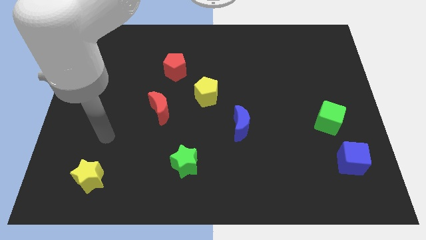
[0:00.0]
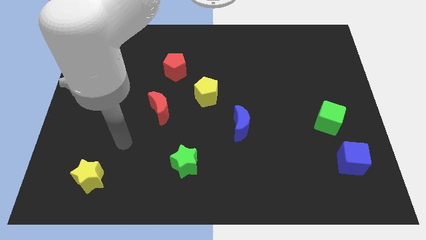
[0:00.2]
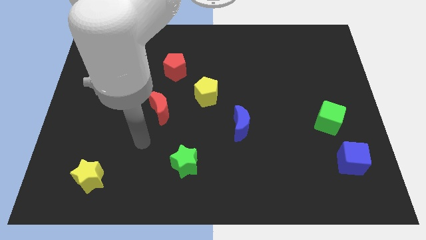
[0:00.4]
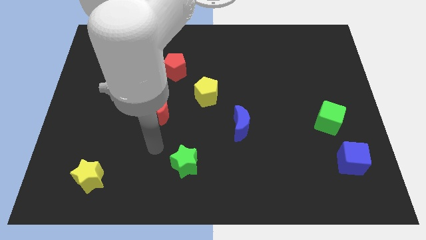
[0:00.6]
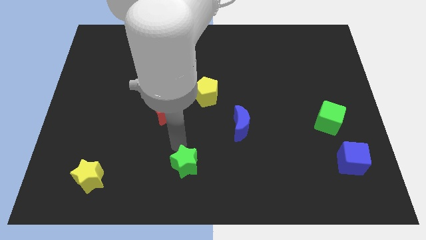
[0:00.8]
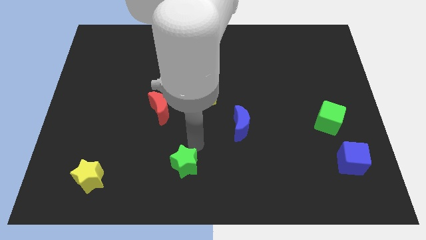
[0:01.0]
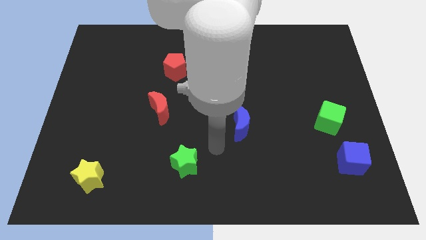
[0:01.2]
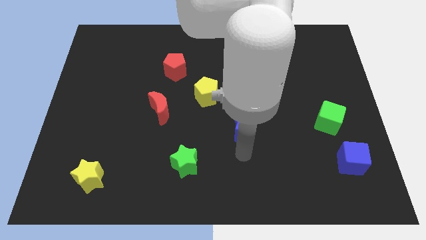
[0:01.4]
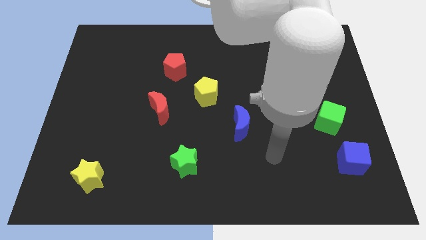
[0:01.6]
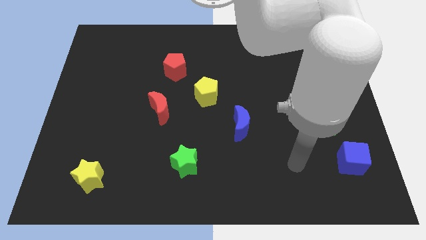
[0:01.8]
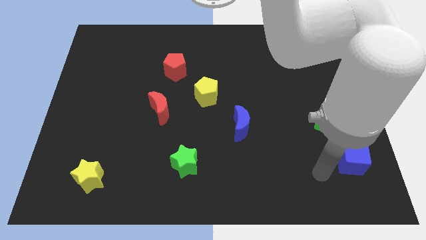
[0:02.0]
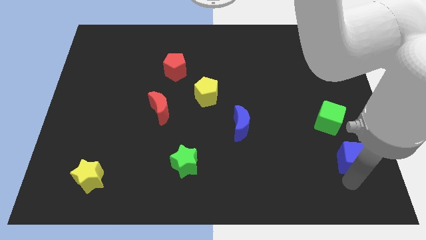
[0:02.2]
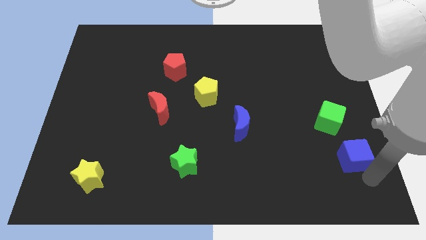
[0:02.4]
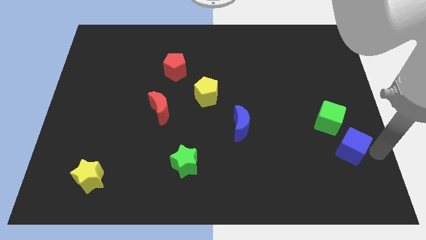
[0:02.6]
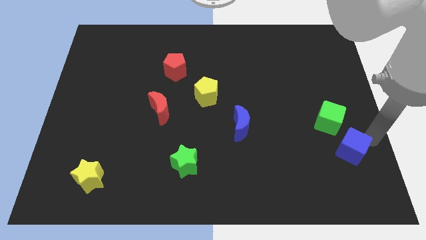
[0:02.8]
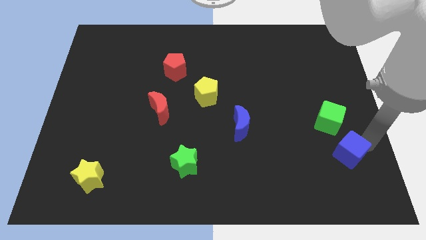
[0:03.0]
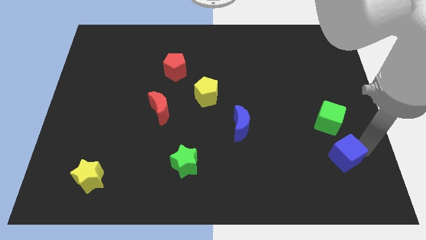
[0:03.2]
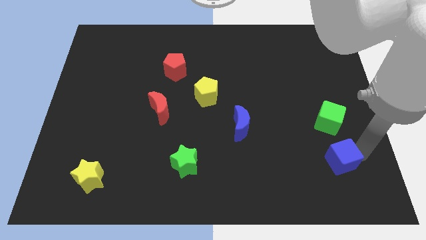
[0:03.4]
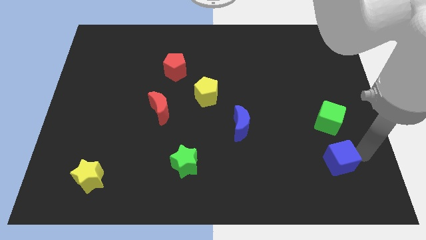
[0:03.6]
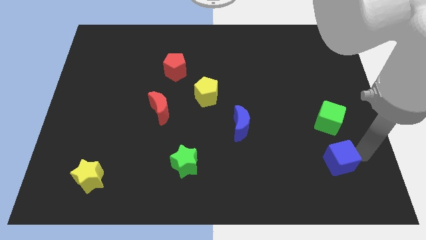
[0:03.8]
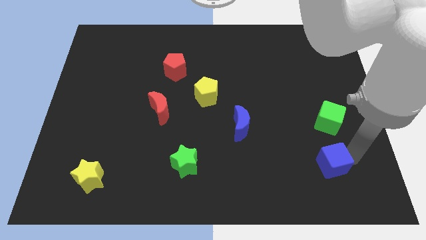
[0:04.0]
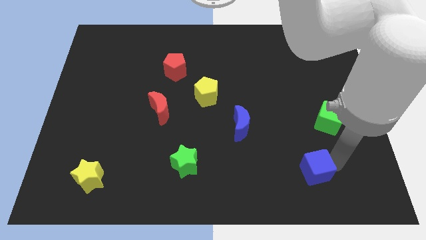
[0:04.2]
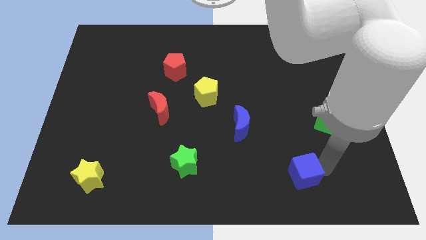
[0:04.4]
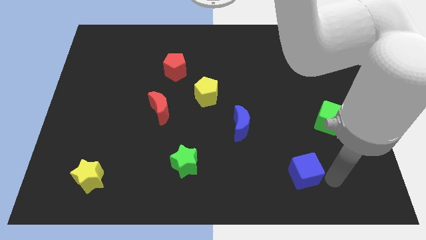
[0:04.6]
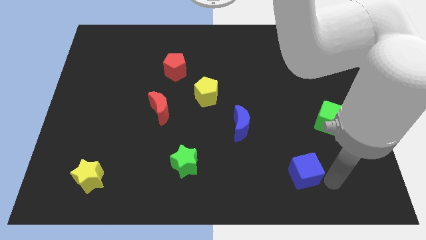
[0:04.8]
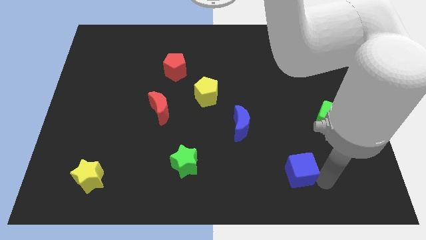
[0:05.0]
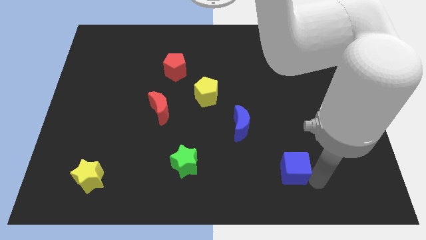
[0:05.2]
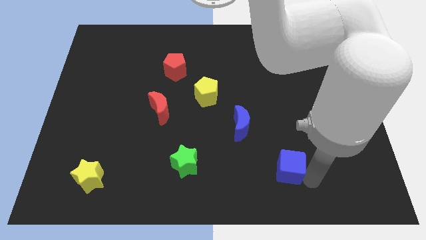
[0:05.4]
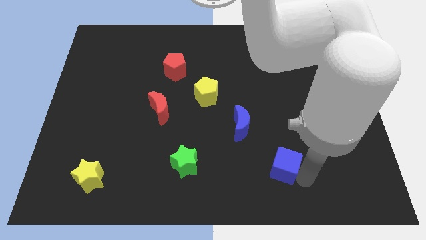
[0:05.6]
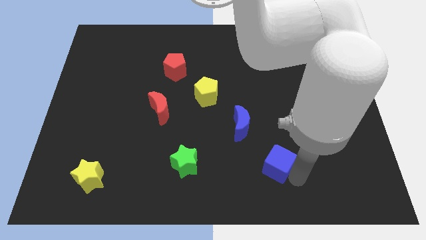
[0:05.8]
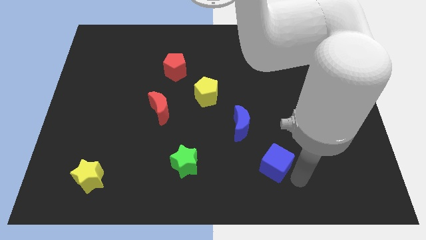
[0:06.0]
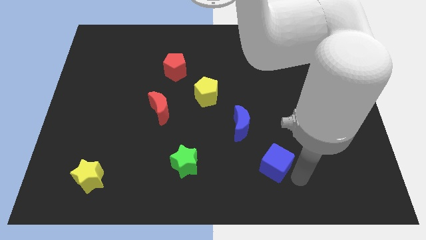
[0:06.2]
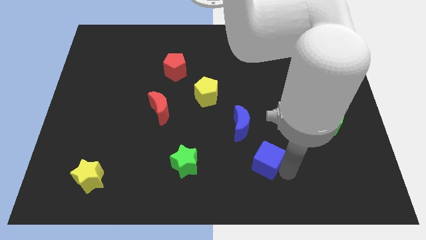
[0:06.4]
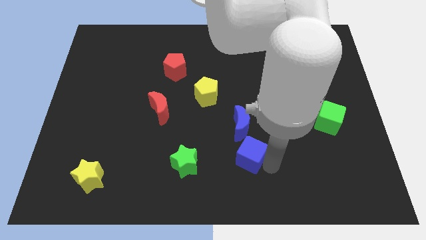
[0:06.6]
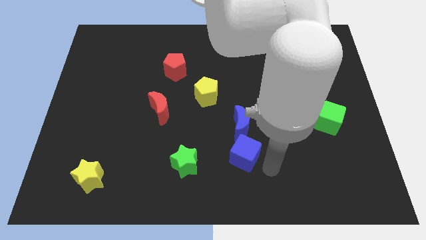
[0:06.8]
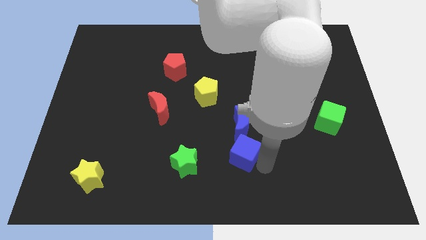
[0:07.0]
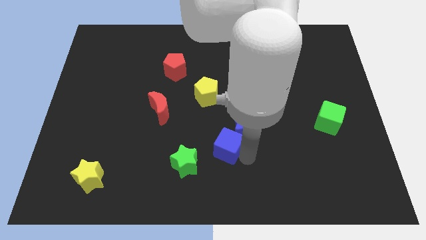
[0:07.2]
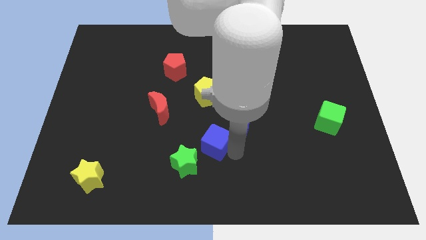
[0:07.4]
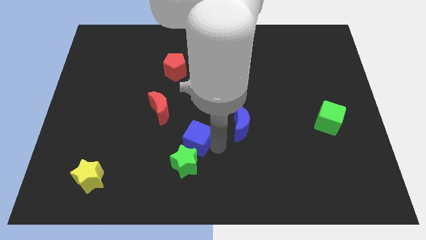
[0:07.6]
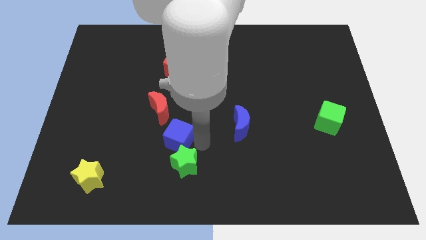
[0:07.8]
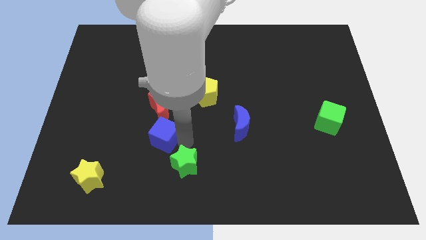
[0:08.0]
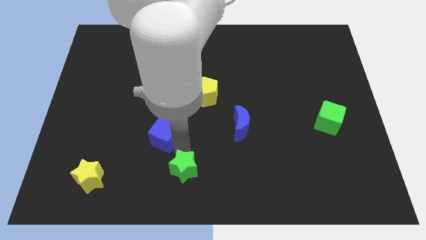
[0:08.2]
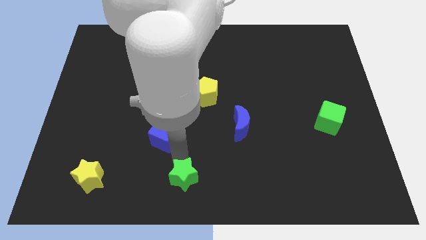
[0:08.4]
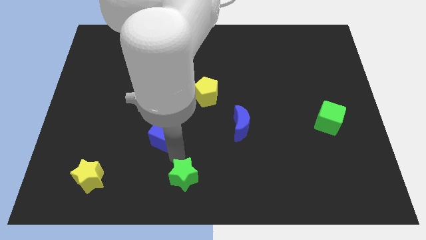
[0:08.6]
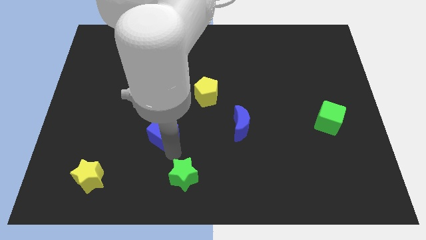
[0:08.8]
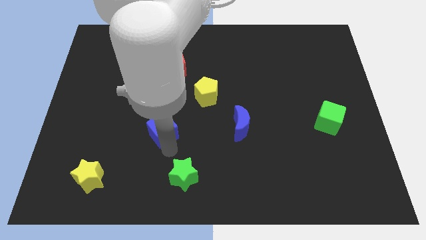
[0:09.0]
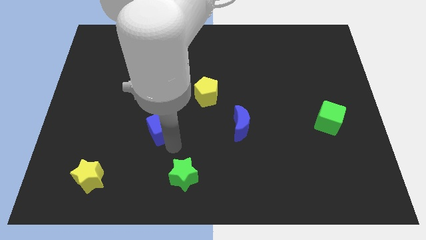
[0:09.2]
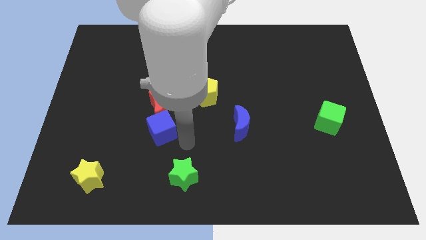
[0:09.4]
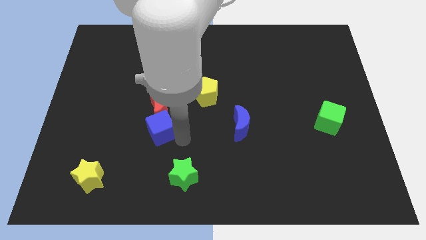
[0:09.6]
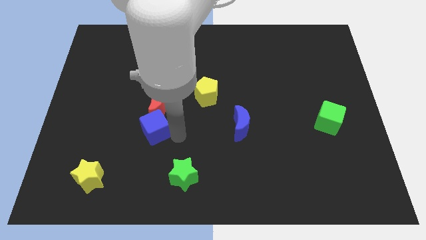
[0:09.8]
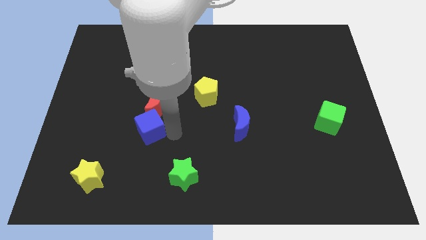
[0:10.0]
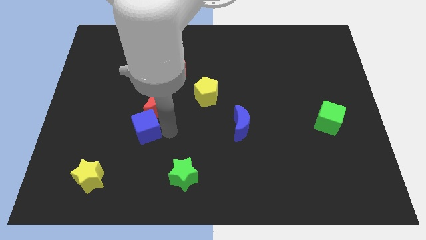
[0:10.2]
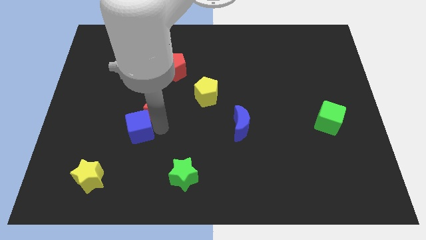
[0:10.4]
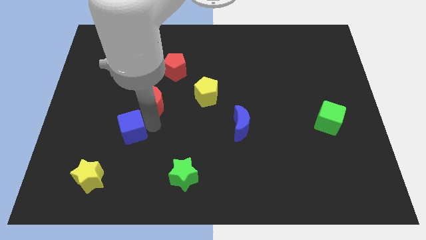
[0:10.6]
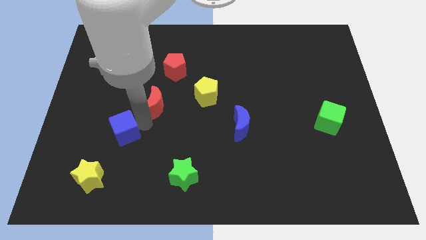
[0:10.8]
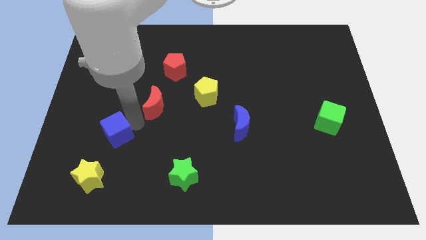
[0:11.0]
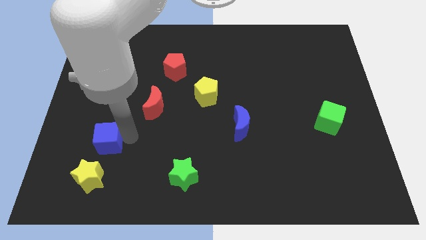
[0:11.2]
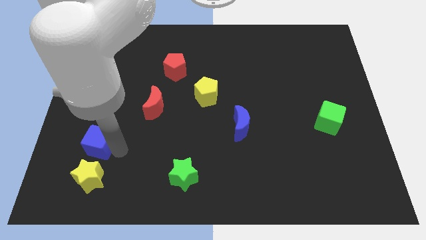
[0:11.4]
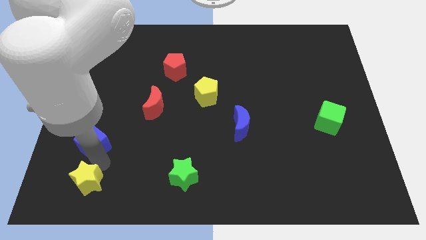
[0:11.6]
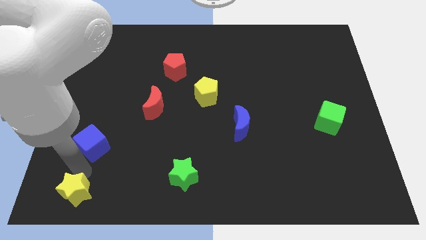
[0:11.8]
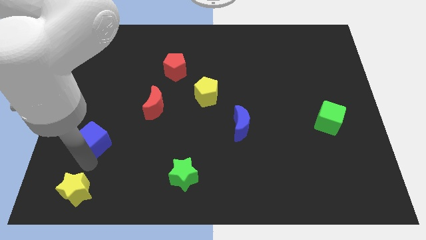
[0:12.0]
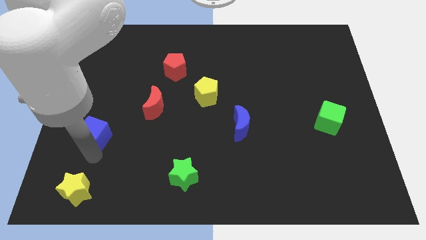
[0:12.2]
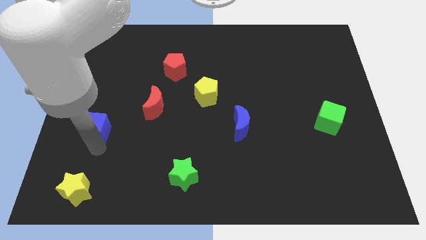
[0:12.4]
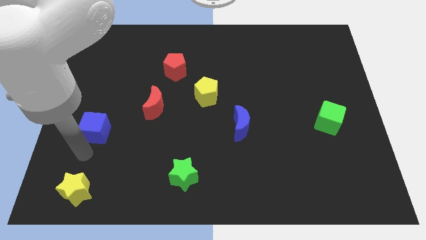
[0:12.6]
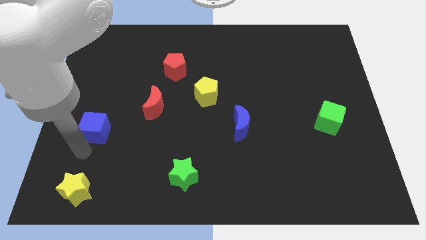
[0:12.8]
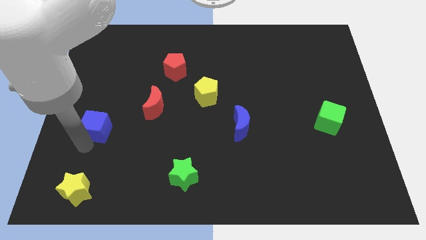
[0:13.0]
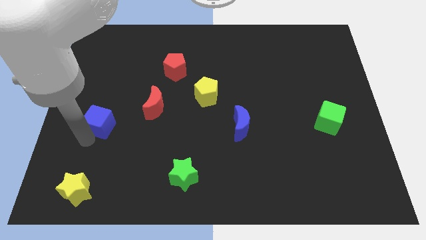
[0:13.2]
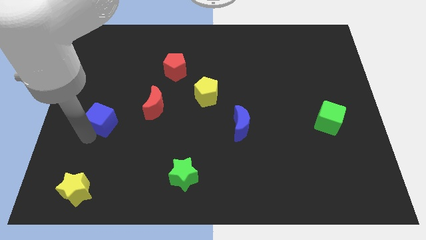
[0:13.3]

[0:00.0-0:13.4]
move the blue cube just left of the red moon

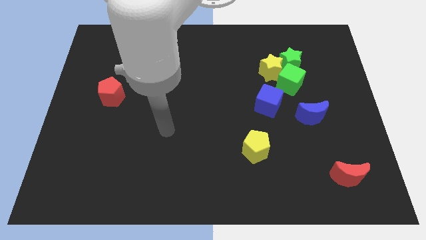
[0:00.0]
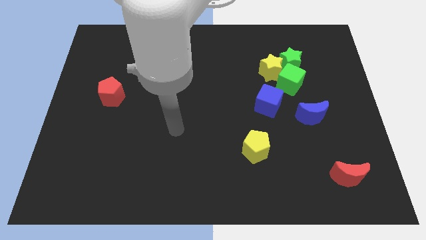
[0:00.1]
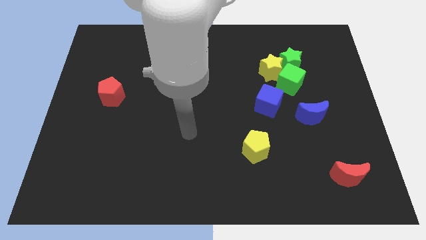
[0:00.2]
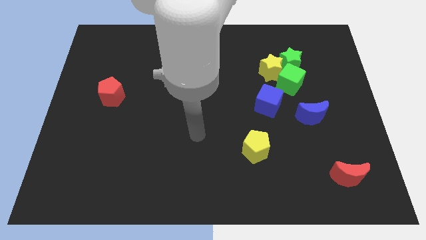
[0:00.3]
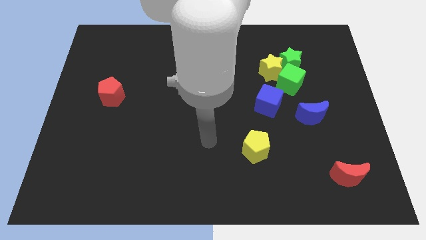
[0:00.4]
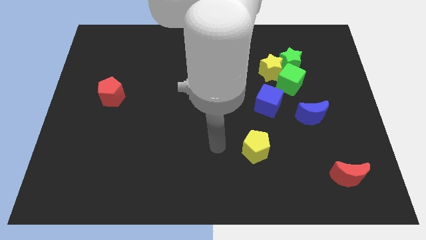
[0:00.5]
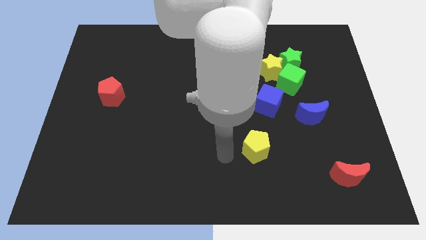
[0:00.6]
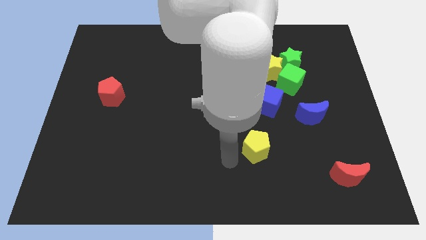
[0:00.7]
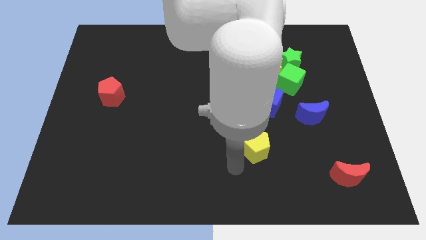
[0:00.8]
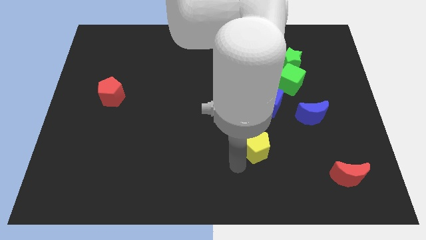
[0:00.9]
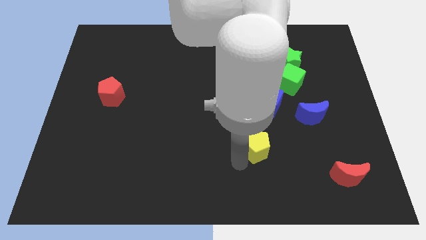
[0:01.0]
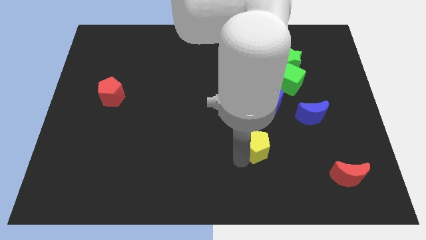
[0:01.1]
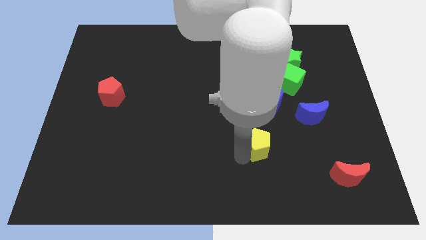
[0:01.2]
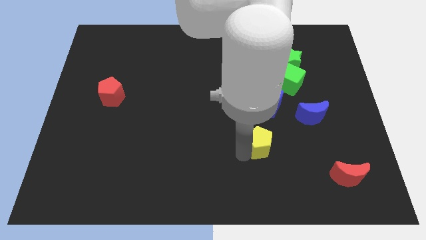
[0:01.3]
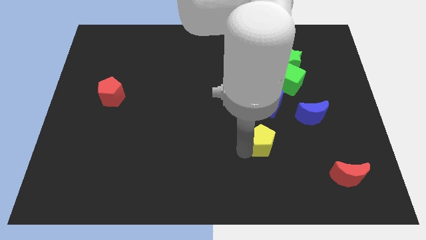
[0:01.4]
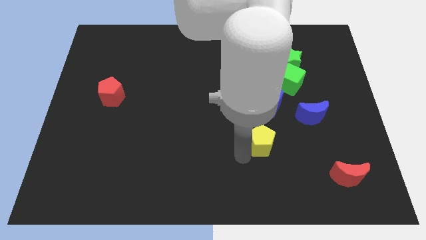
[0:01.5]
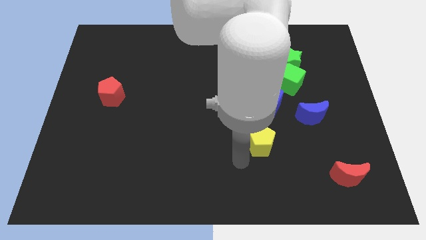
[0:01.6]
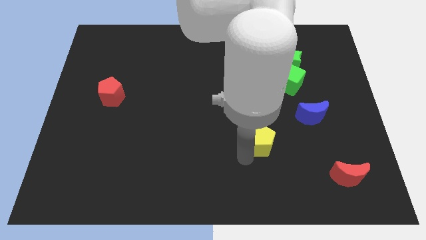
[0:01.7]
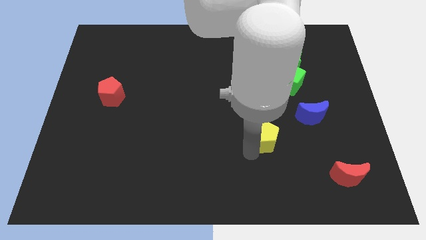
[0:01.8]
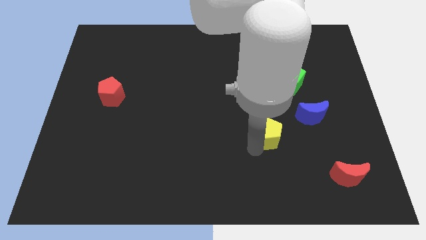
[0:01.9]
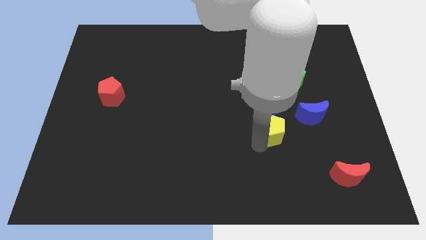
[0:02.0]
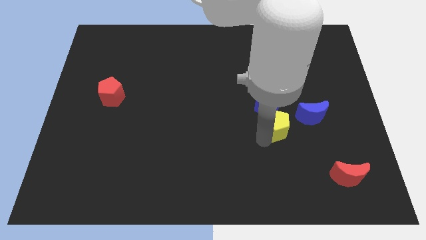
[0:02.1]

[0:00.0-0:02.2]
put the yellow pentagon diagonally down and to the right of the blue cube
